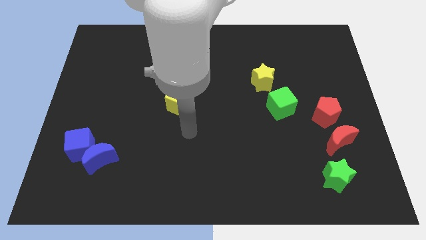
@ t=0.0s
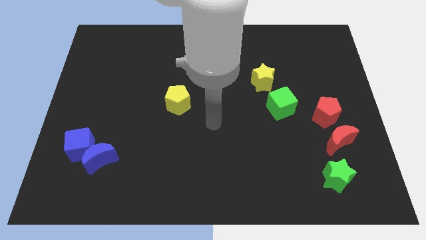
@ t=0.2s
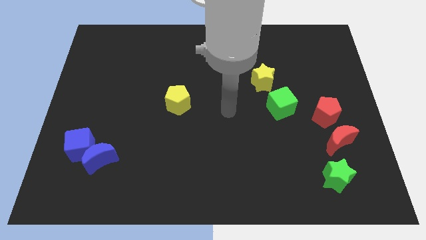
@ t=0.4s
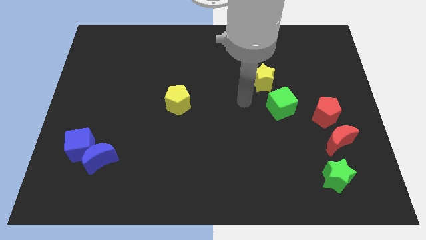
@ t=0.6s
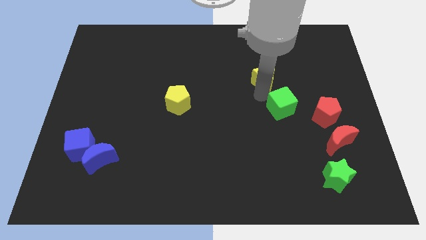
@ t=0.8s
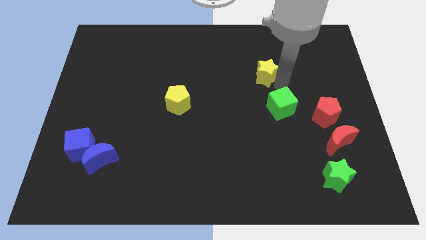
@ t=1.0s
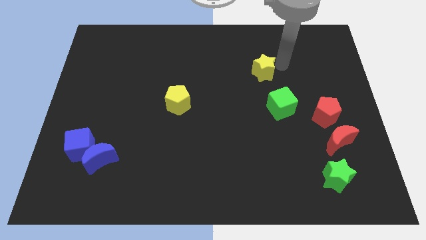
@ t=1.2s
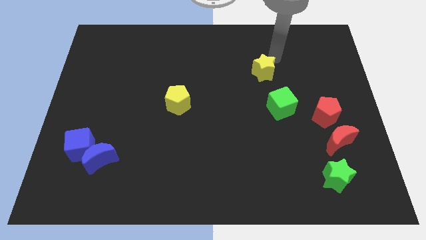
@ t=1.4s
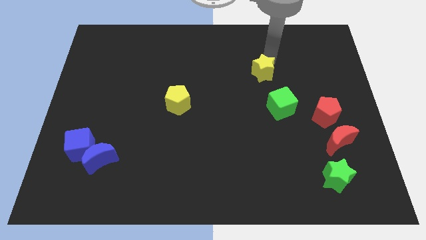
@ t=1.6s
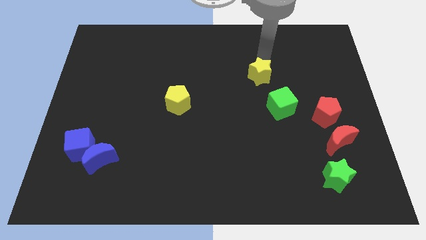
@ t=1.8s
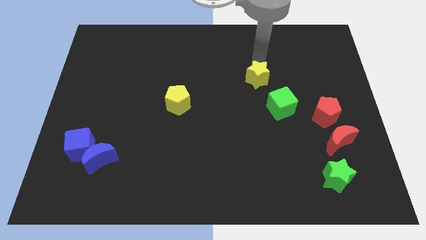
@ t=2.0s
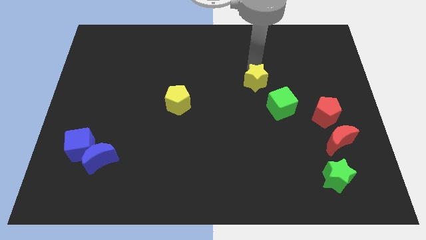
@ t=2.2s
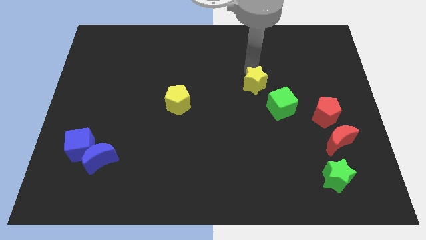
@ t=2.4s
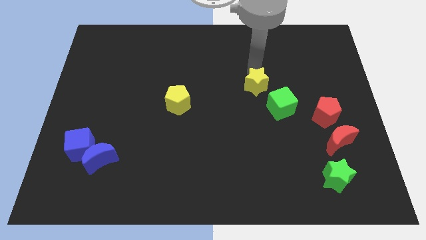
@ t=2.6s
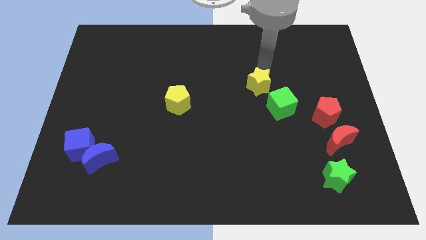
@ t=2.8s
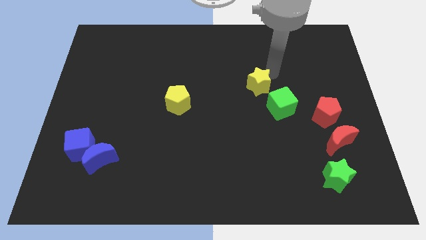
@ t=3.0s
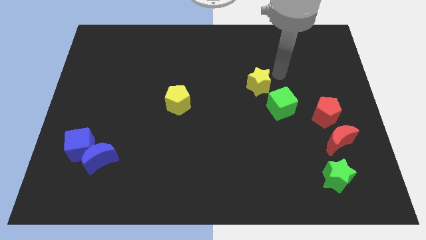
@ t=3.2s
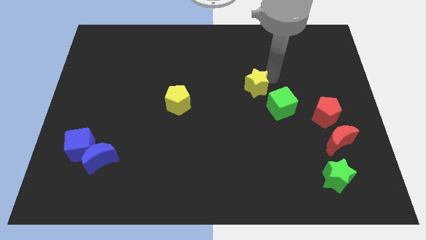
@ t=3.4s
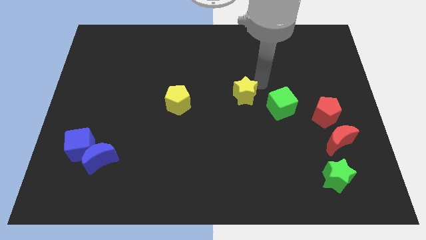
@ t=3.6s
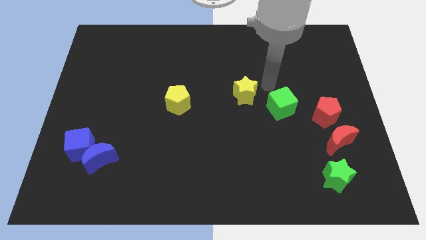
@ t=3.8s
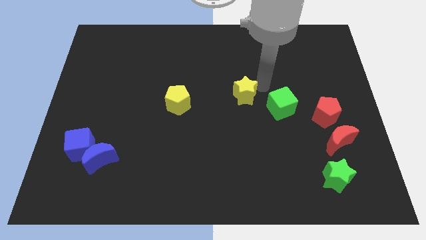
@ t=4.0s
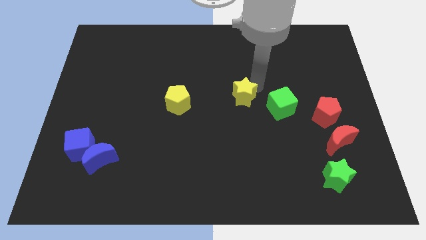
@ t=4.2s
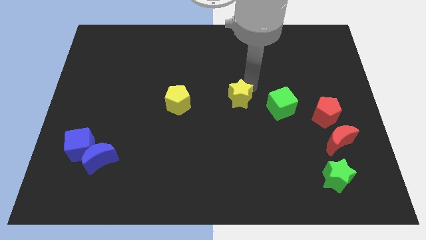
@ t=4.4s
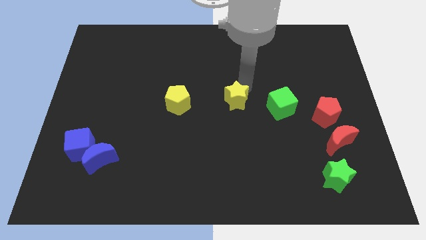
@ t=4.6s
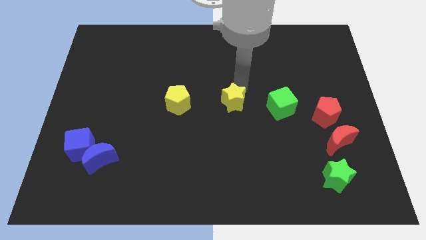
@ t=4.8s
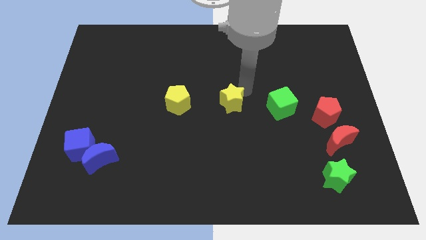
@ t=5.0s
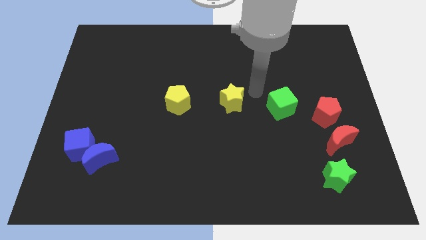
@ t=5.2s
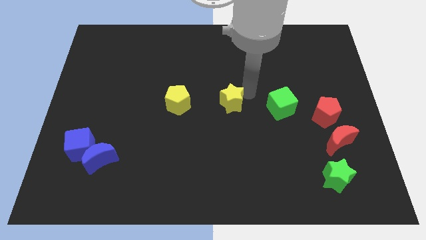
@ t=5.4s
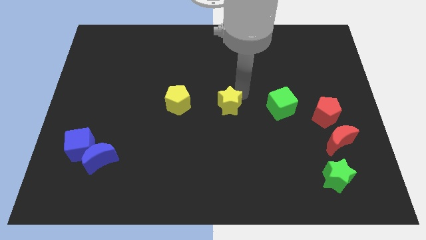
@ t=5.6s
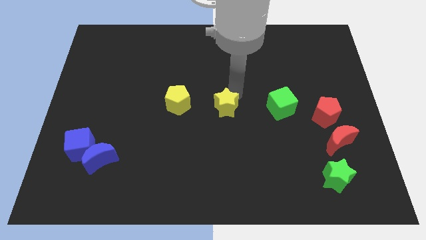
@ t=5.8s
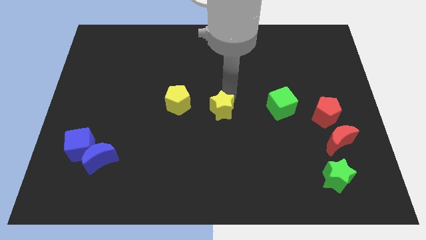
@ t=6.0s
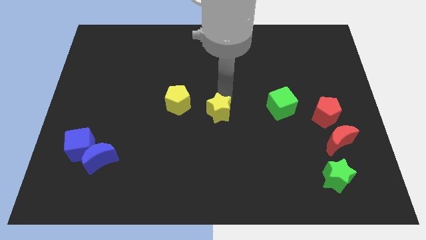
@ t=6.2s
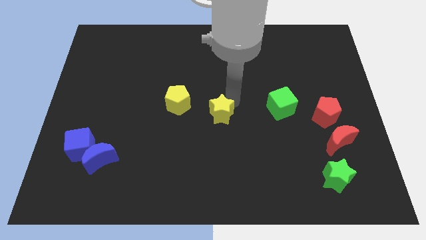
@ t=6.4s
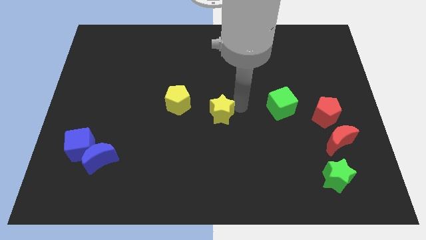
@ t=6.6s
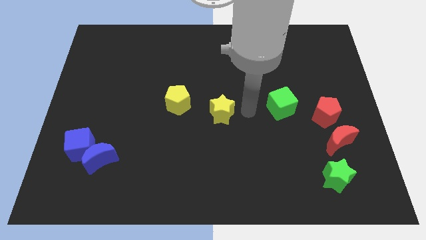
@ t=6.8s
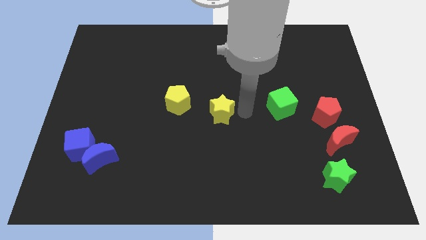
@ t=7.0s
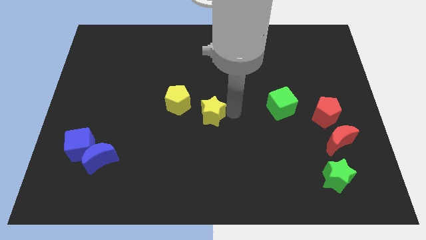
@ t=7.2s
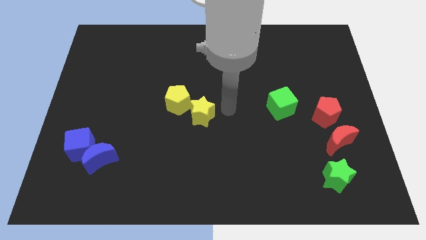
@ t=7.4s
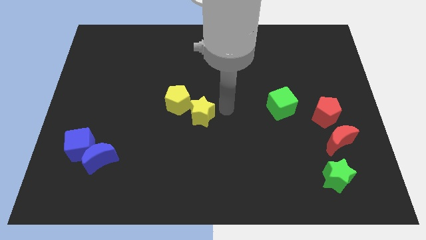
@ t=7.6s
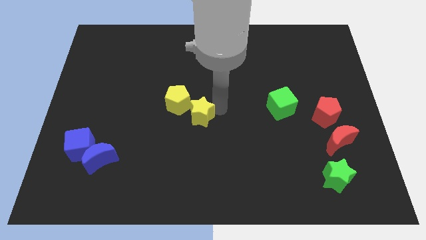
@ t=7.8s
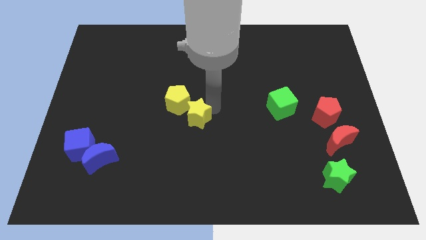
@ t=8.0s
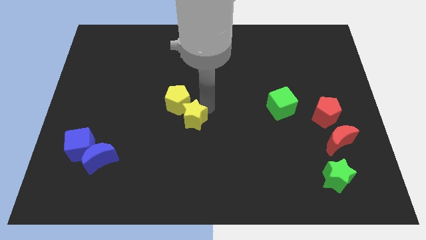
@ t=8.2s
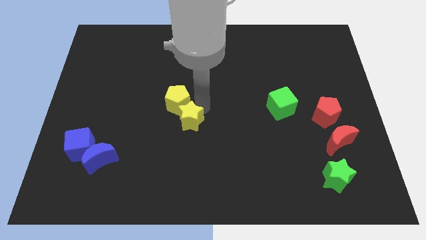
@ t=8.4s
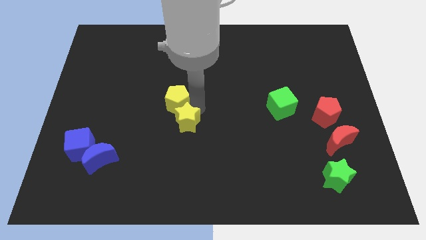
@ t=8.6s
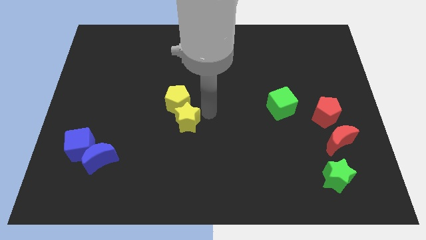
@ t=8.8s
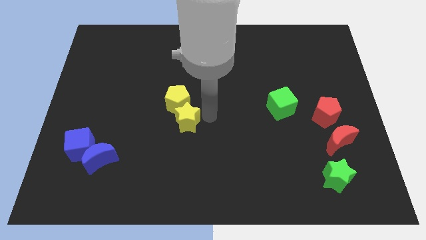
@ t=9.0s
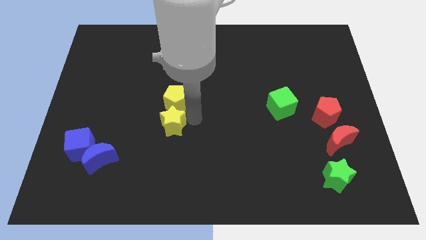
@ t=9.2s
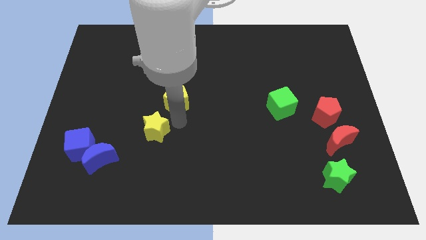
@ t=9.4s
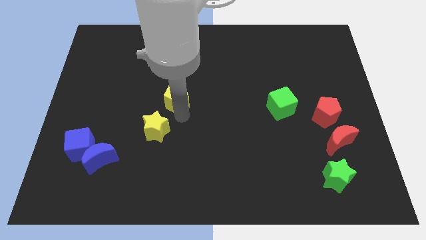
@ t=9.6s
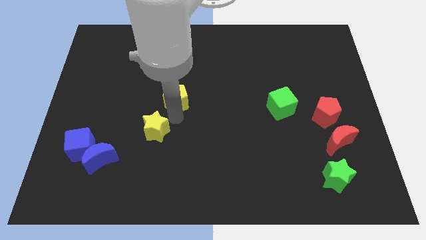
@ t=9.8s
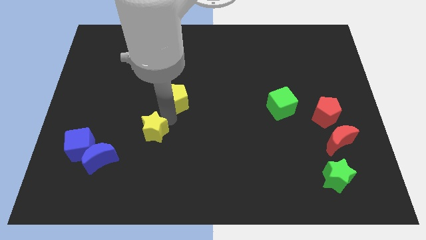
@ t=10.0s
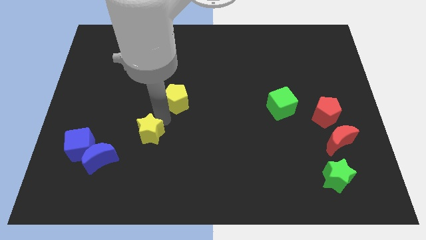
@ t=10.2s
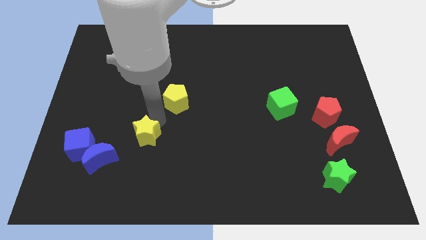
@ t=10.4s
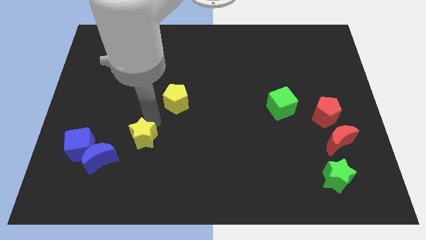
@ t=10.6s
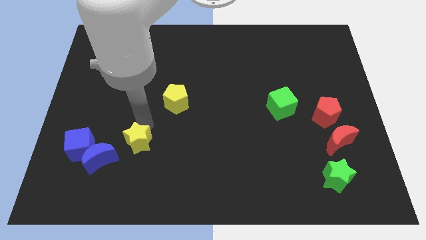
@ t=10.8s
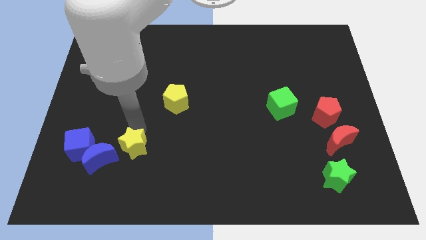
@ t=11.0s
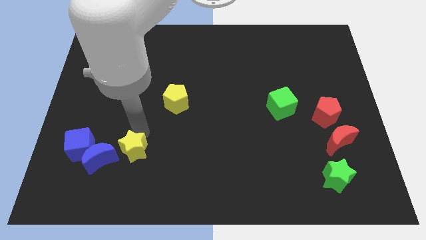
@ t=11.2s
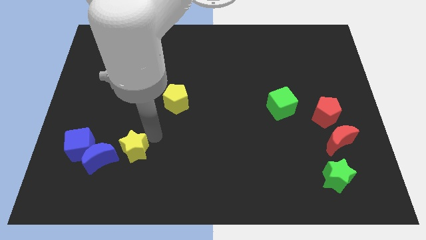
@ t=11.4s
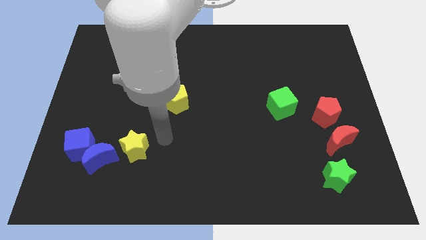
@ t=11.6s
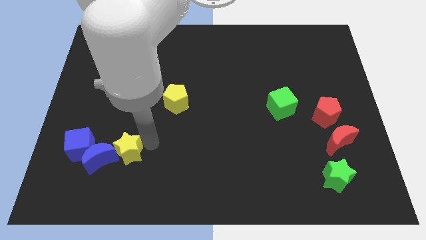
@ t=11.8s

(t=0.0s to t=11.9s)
push the yellow star to the blue moon

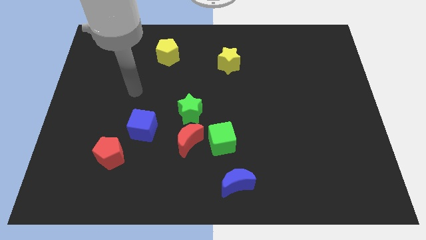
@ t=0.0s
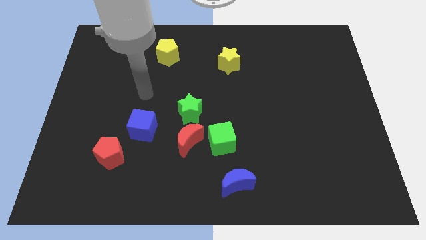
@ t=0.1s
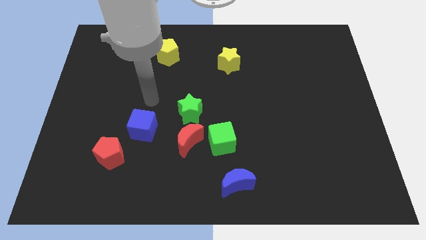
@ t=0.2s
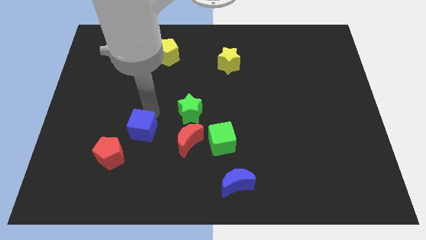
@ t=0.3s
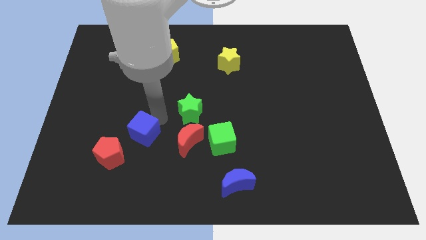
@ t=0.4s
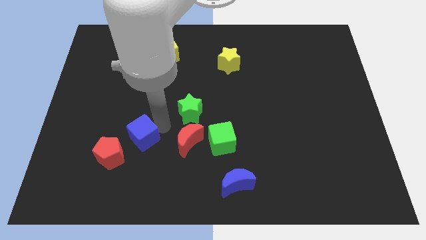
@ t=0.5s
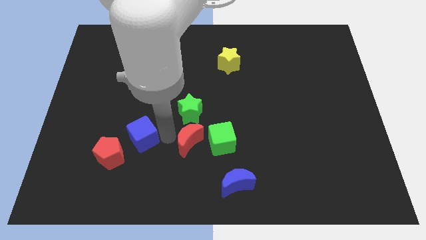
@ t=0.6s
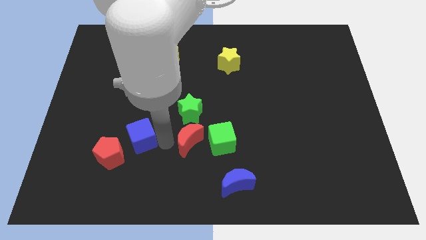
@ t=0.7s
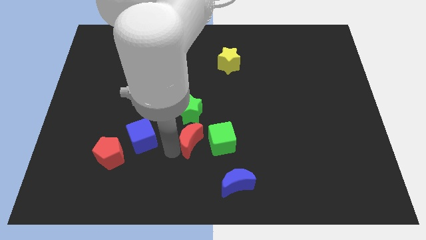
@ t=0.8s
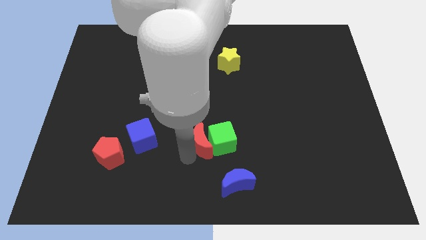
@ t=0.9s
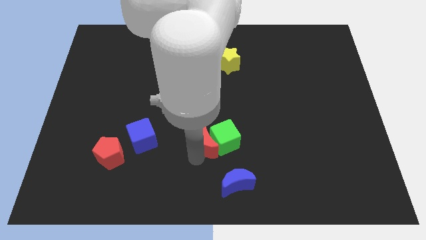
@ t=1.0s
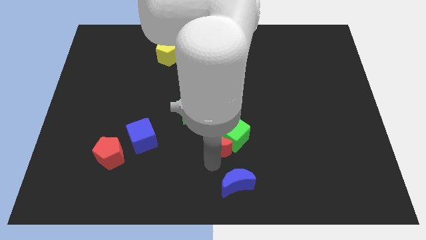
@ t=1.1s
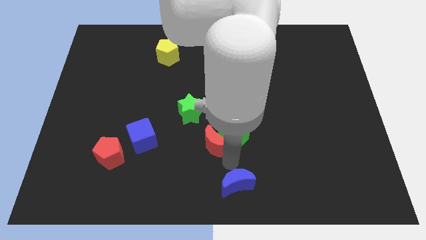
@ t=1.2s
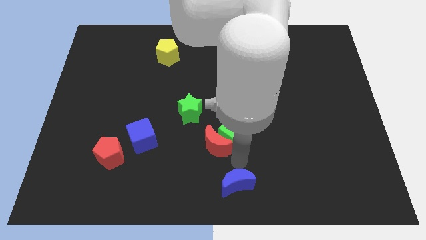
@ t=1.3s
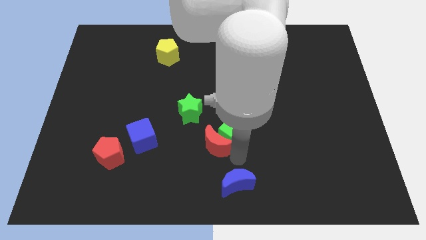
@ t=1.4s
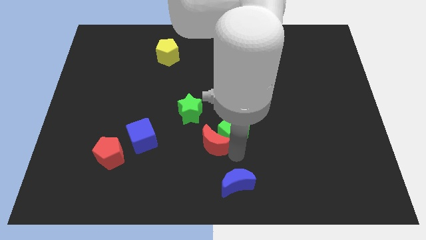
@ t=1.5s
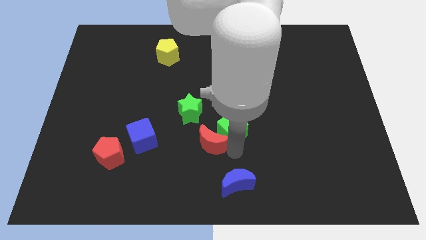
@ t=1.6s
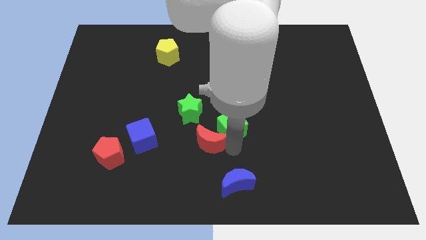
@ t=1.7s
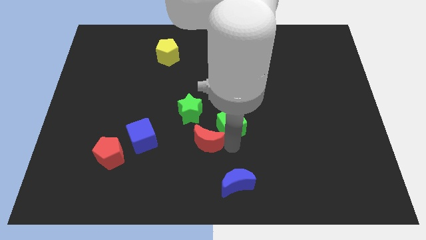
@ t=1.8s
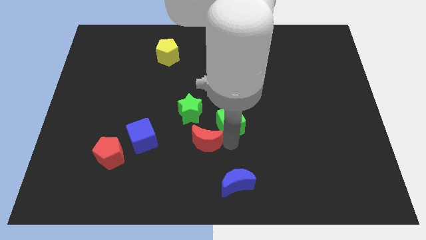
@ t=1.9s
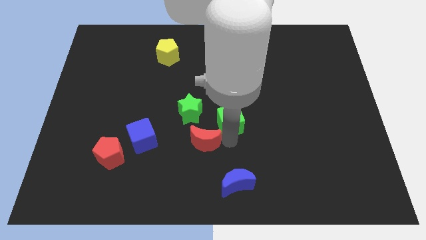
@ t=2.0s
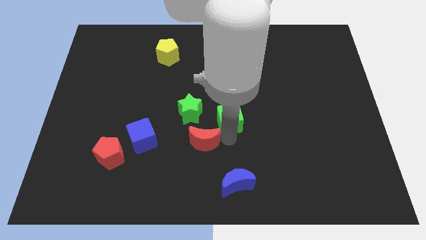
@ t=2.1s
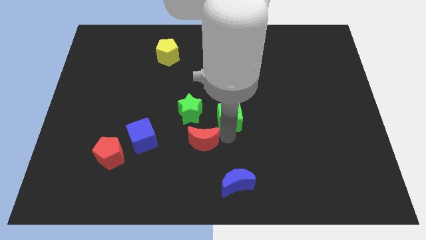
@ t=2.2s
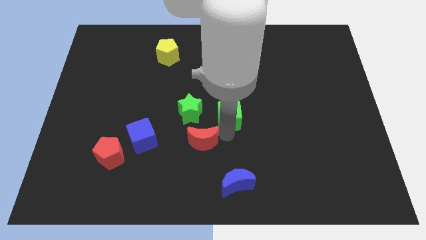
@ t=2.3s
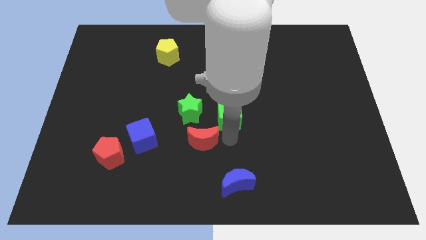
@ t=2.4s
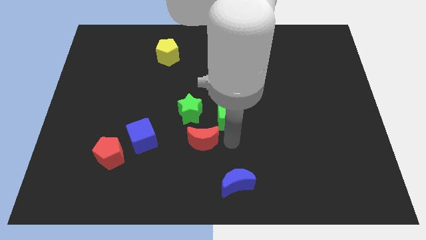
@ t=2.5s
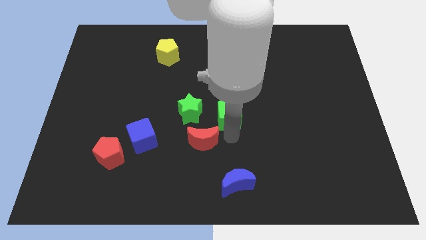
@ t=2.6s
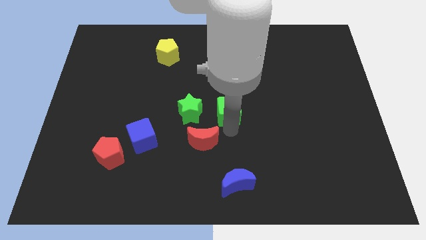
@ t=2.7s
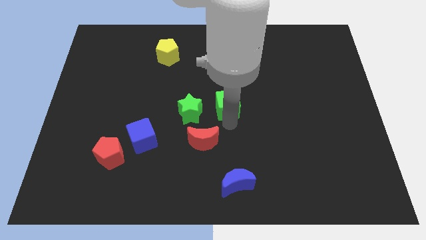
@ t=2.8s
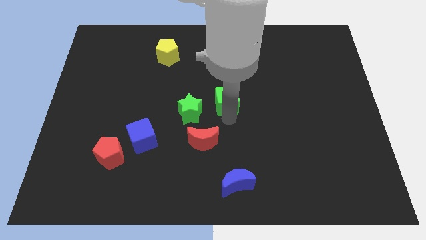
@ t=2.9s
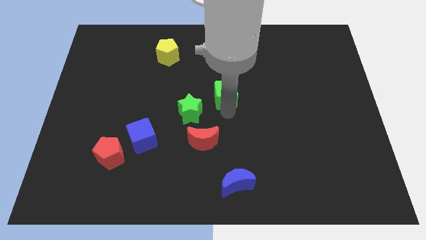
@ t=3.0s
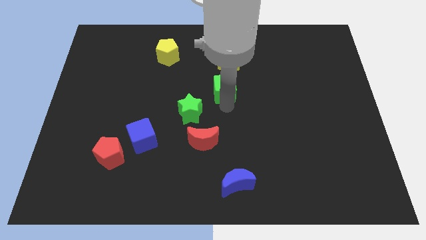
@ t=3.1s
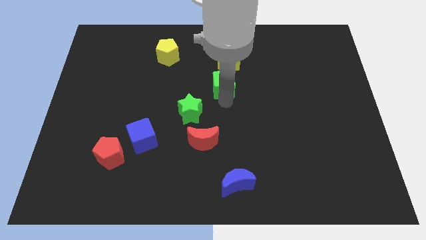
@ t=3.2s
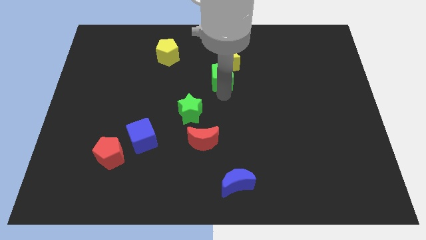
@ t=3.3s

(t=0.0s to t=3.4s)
move the green cube next to the yellow star
